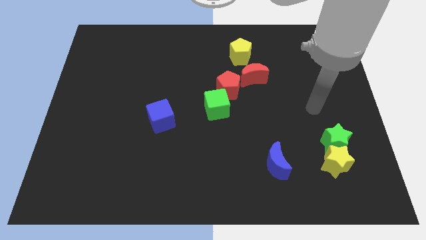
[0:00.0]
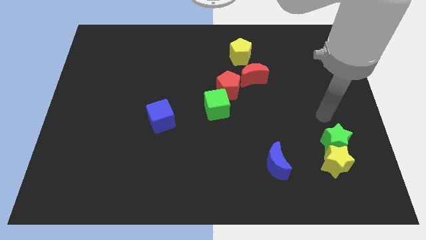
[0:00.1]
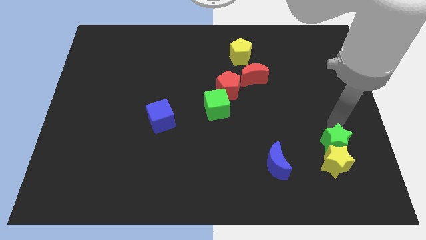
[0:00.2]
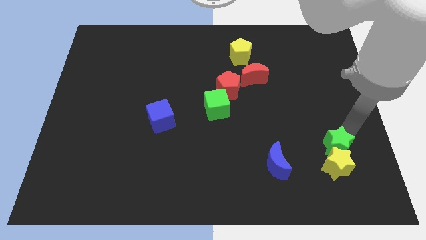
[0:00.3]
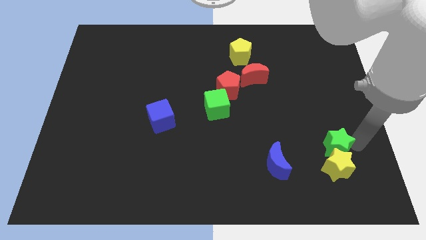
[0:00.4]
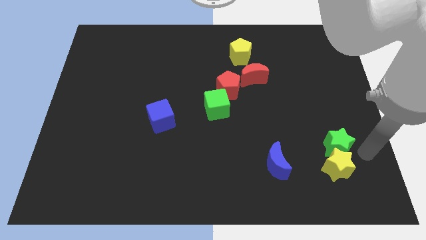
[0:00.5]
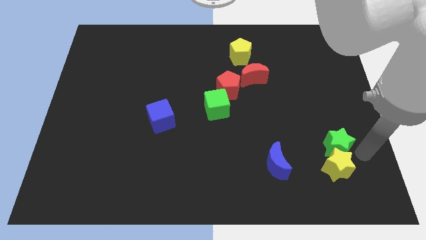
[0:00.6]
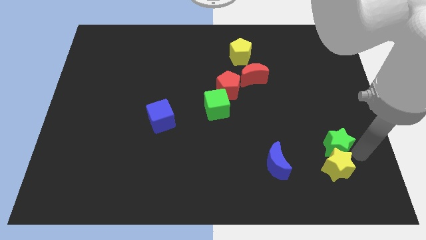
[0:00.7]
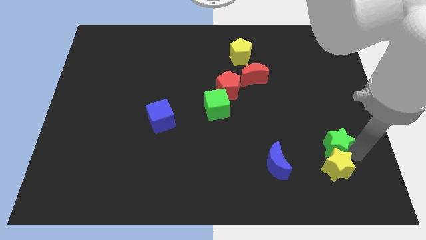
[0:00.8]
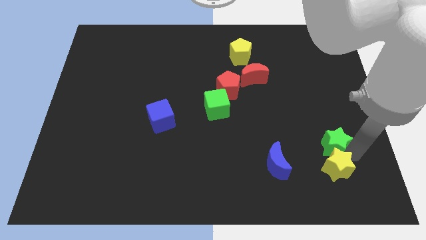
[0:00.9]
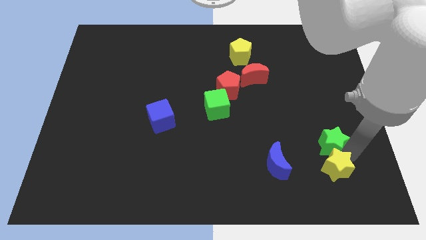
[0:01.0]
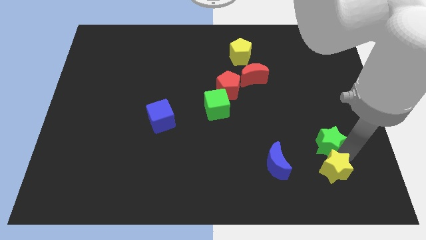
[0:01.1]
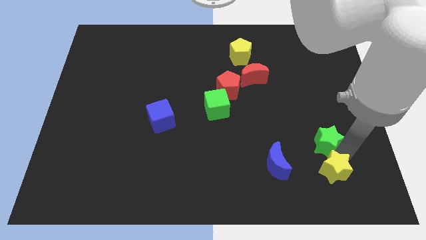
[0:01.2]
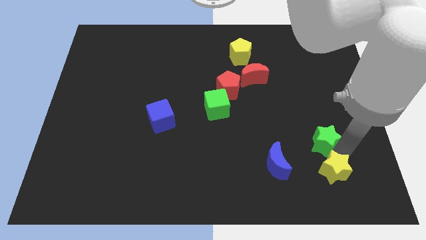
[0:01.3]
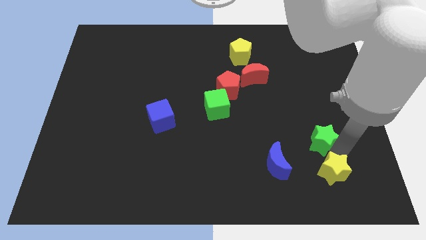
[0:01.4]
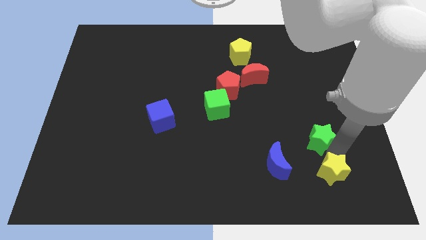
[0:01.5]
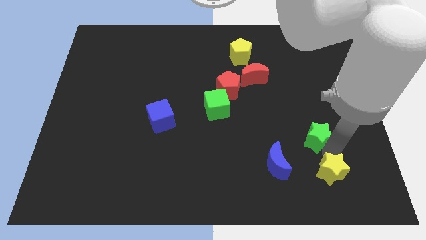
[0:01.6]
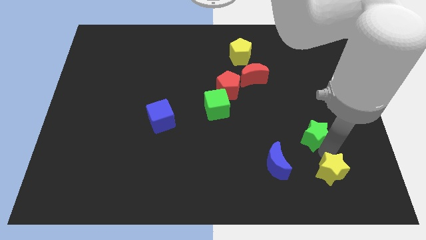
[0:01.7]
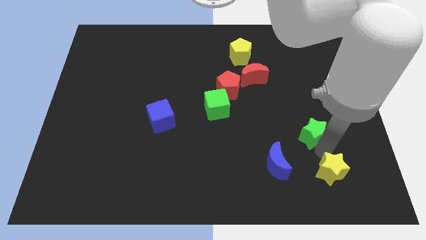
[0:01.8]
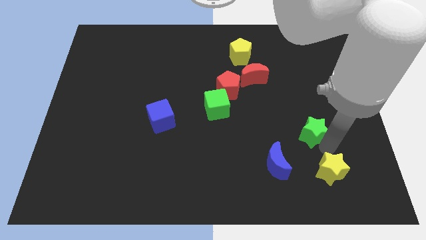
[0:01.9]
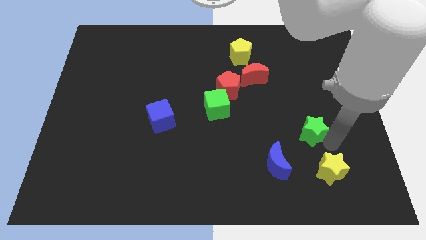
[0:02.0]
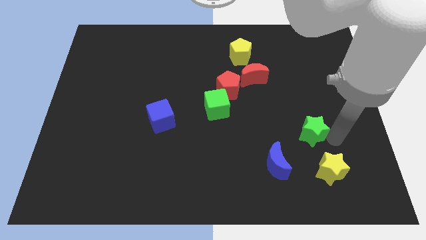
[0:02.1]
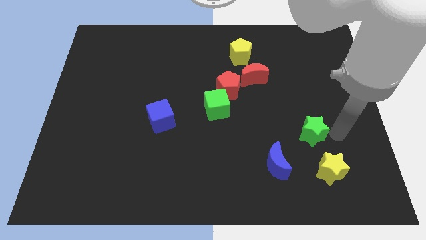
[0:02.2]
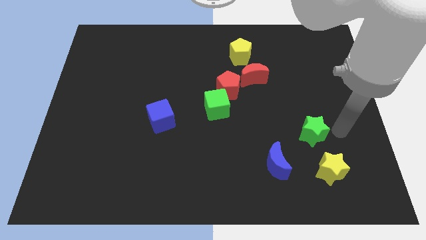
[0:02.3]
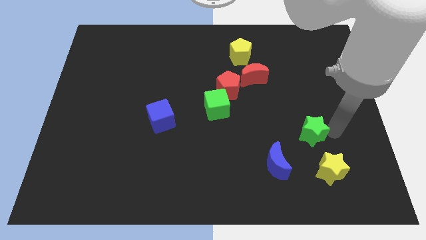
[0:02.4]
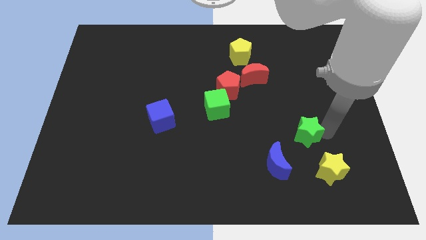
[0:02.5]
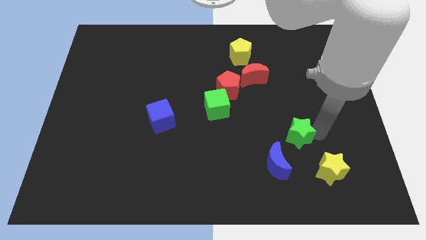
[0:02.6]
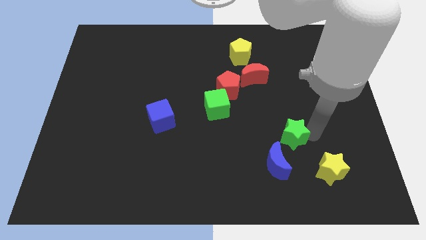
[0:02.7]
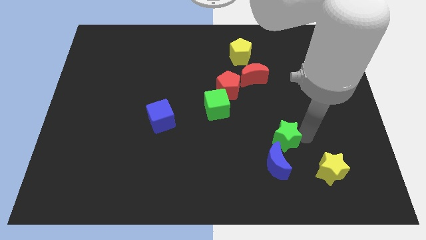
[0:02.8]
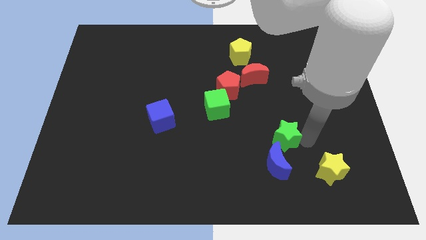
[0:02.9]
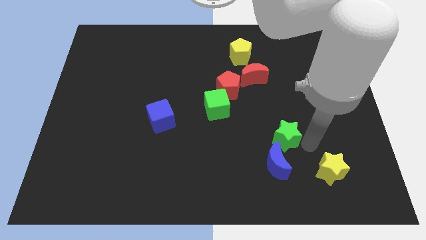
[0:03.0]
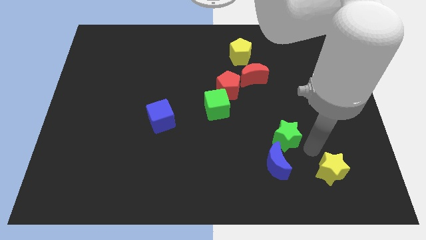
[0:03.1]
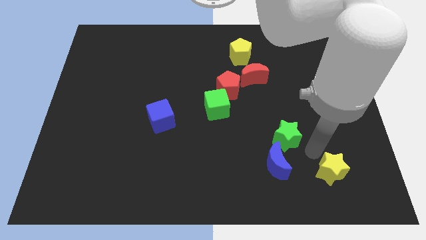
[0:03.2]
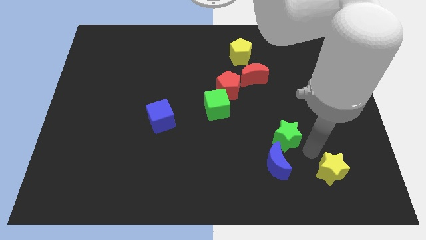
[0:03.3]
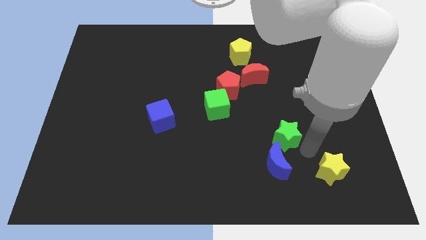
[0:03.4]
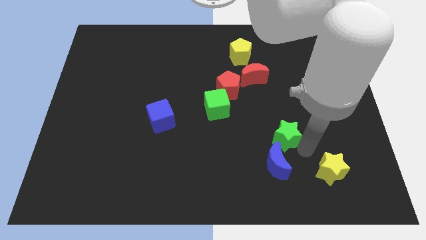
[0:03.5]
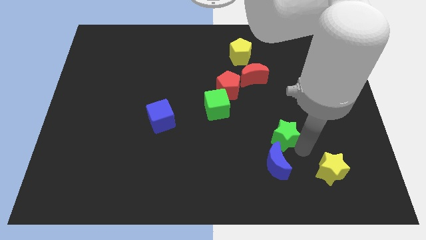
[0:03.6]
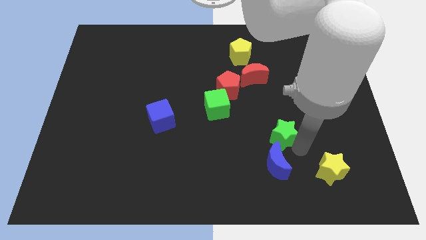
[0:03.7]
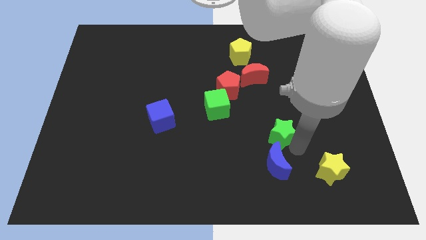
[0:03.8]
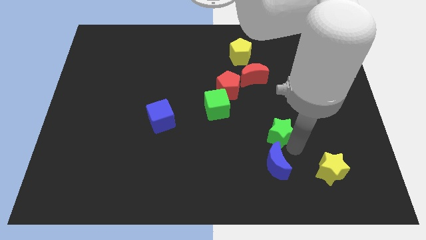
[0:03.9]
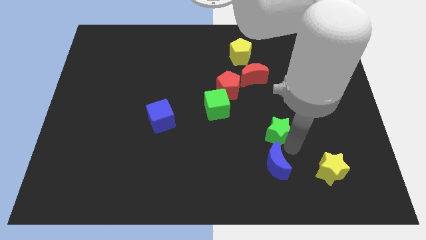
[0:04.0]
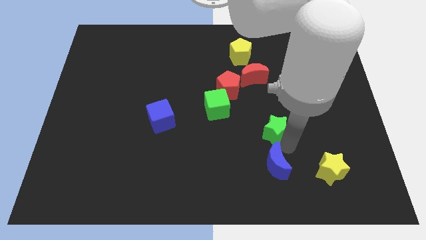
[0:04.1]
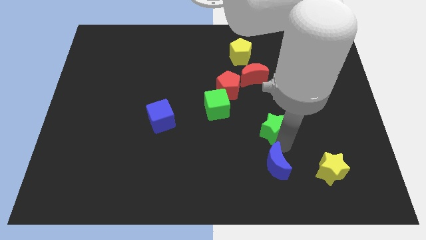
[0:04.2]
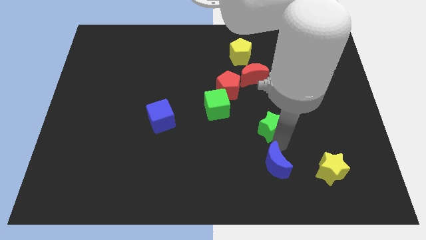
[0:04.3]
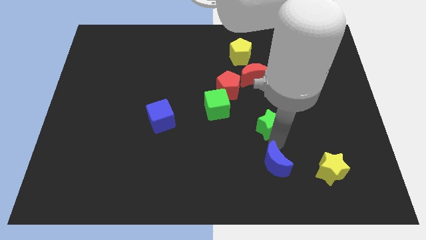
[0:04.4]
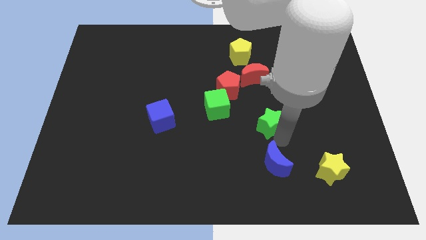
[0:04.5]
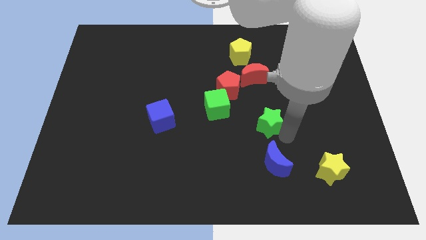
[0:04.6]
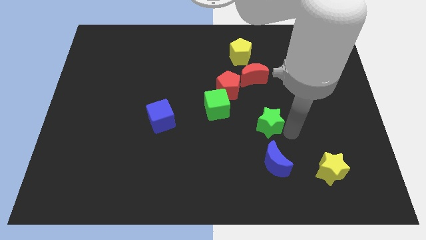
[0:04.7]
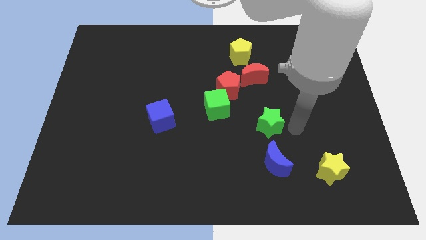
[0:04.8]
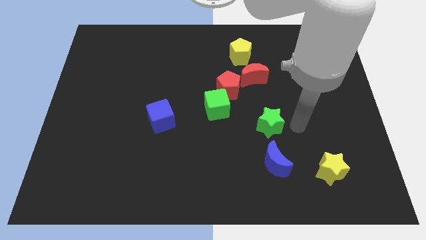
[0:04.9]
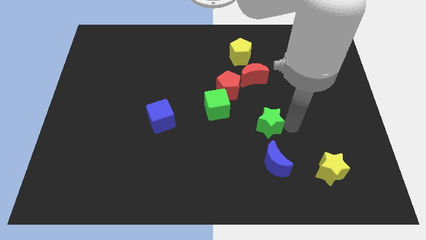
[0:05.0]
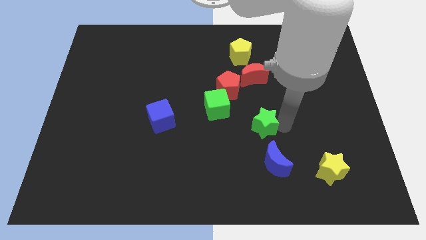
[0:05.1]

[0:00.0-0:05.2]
push the green star diagonally down and to the right of the green cube

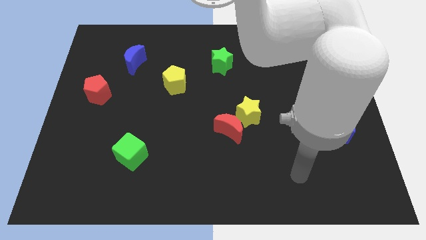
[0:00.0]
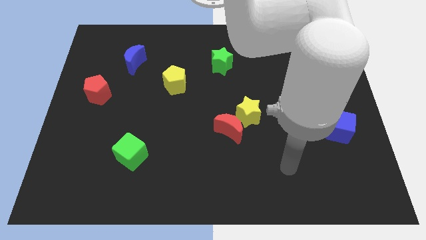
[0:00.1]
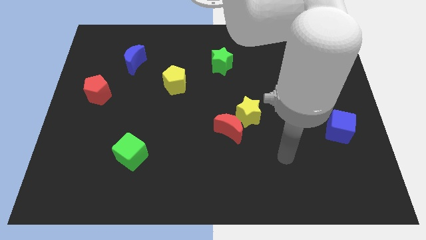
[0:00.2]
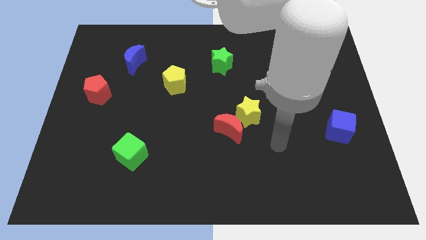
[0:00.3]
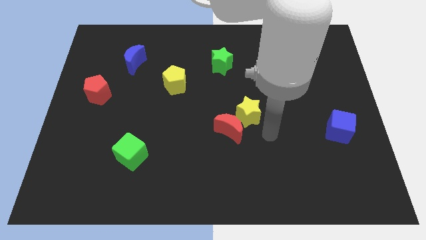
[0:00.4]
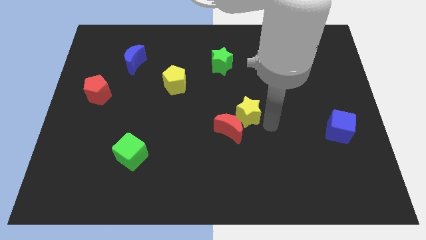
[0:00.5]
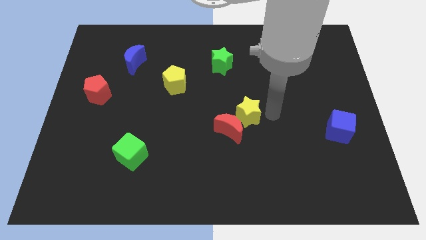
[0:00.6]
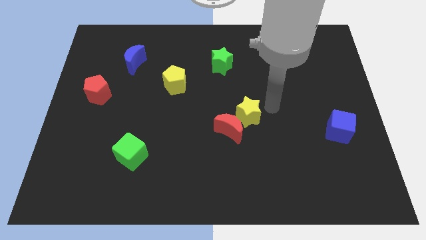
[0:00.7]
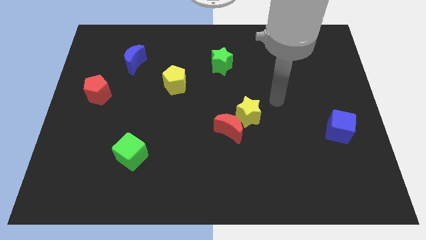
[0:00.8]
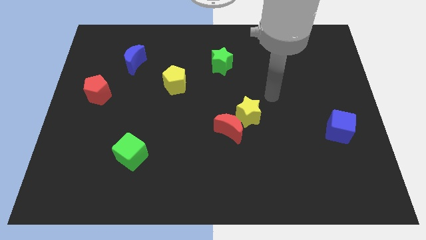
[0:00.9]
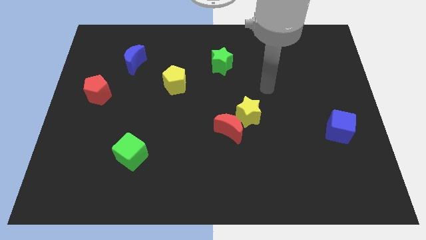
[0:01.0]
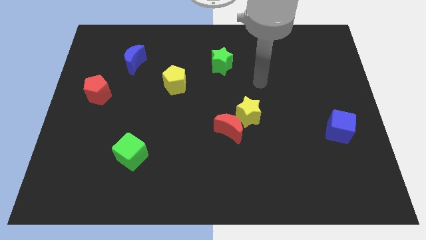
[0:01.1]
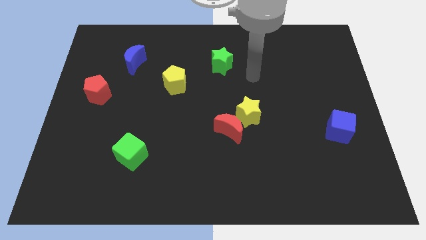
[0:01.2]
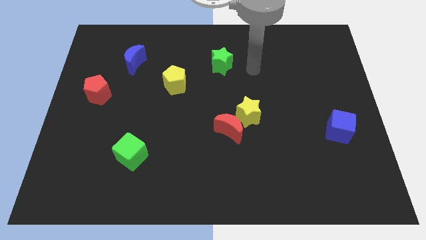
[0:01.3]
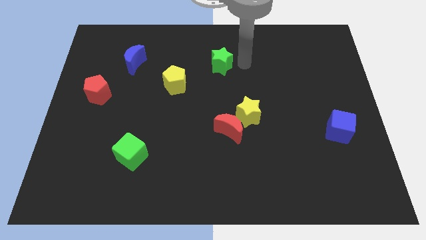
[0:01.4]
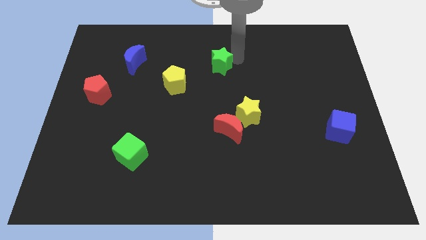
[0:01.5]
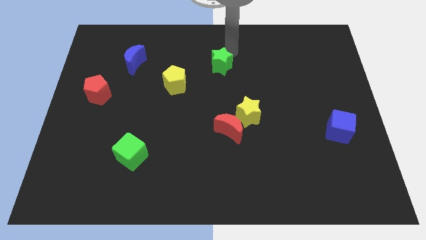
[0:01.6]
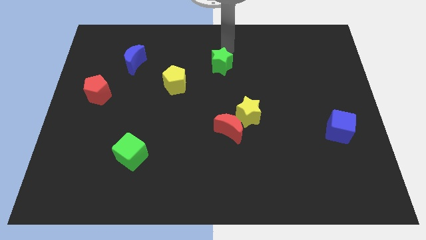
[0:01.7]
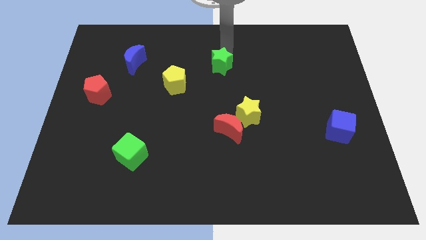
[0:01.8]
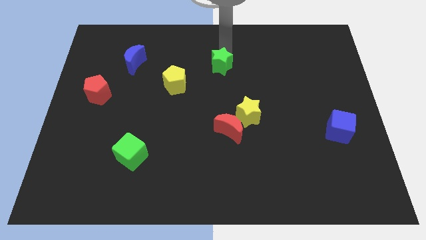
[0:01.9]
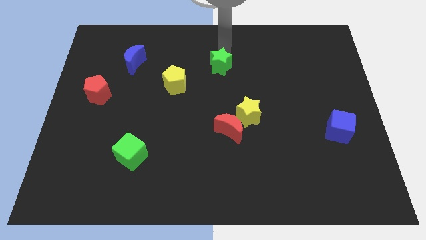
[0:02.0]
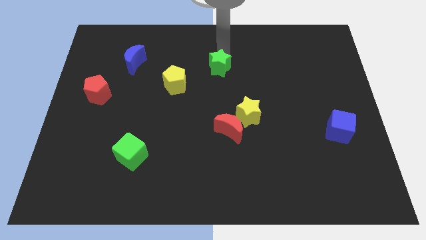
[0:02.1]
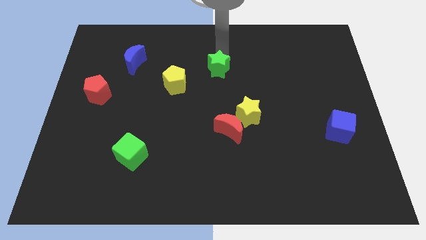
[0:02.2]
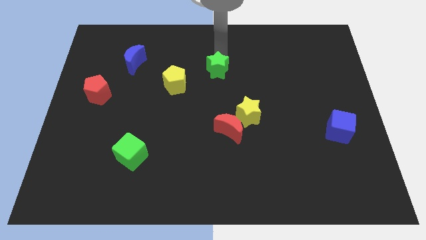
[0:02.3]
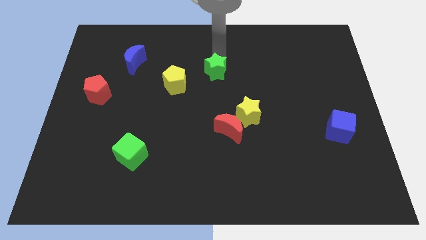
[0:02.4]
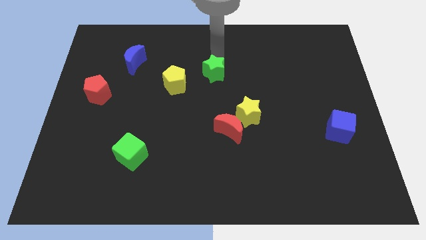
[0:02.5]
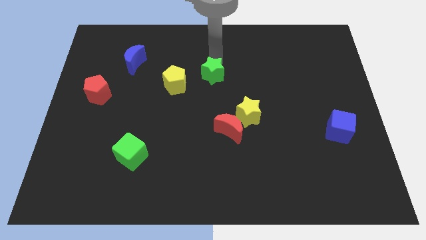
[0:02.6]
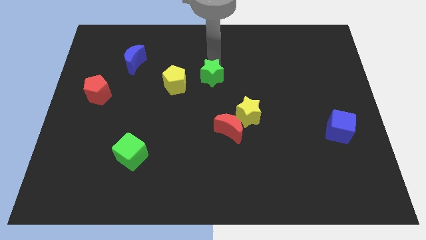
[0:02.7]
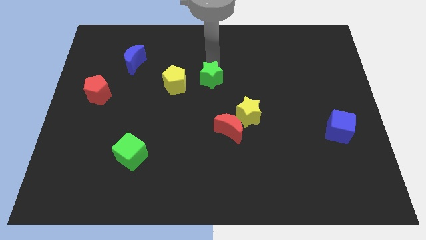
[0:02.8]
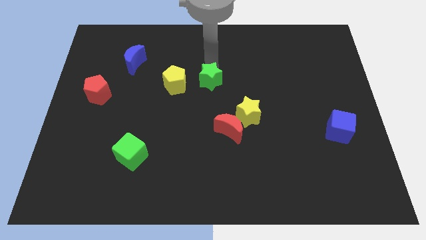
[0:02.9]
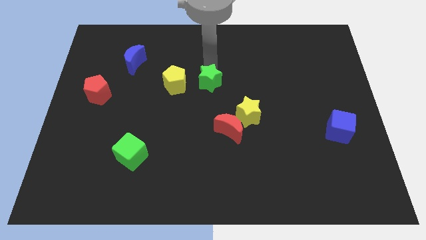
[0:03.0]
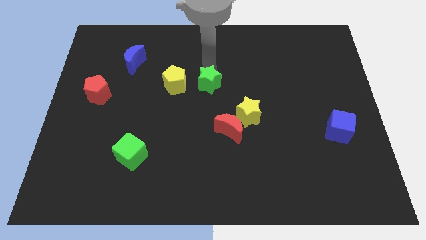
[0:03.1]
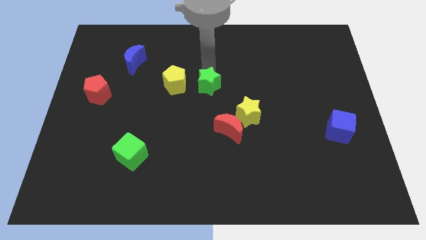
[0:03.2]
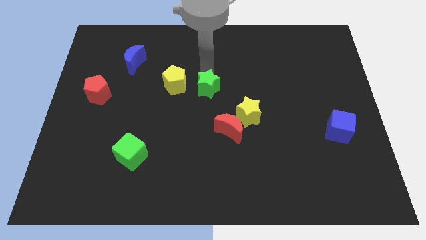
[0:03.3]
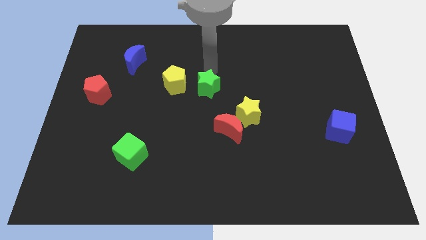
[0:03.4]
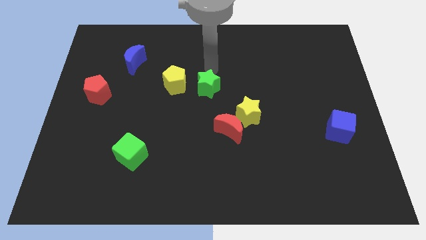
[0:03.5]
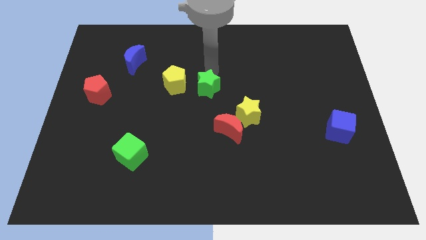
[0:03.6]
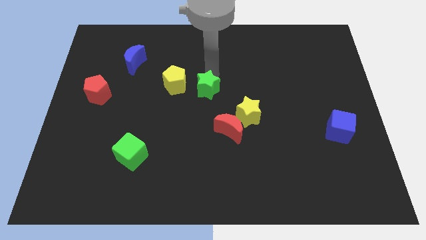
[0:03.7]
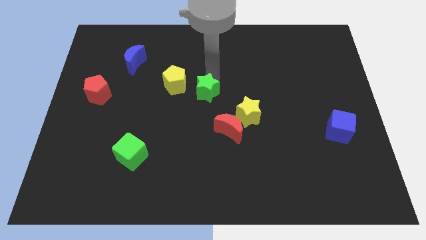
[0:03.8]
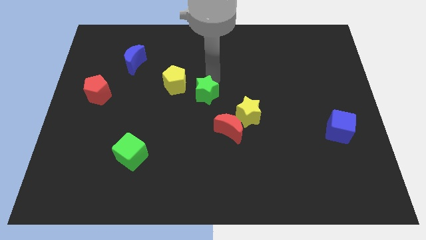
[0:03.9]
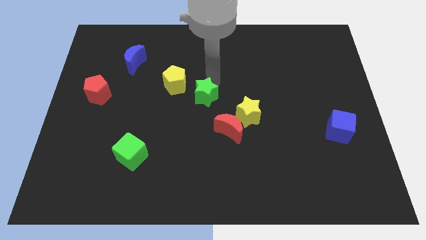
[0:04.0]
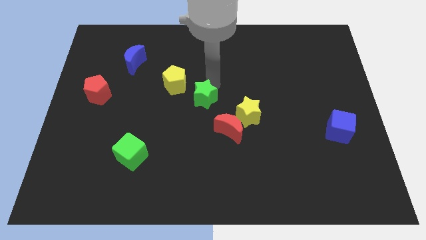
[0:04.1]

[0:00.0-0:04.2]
push the green star just left of the yellow star
